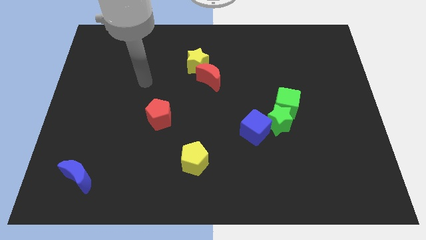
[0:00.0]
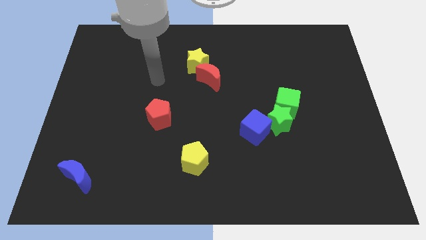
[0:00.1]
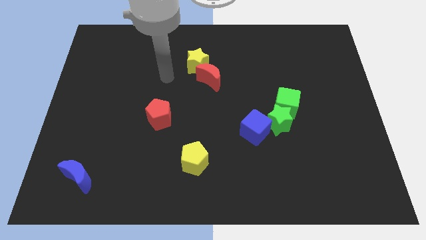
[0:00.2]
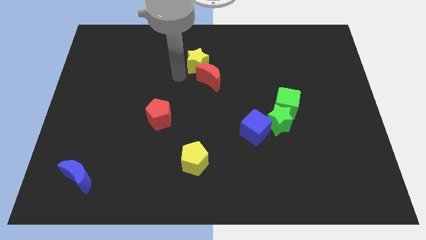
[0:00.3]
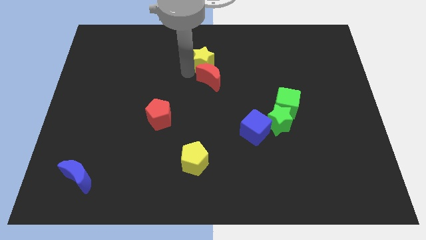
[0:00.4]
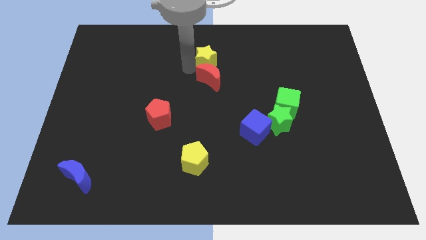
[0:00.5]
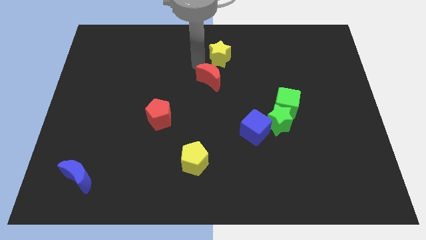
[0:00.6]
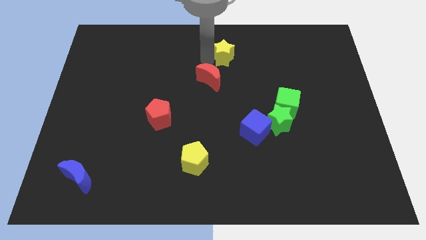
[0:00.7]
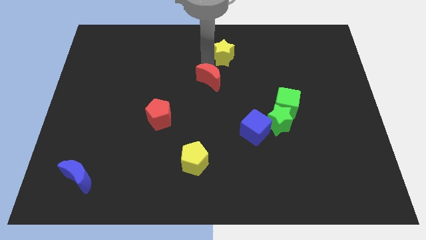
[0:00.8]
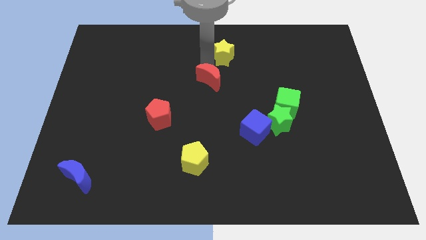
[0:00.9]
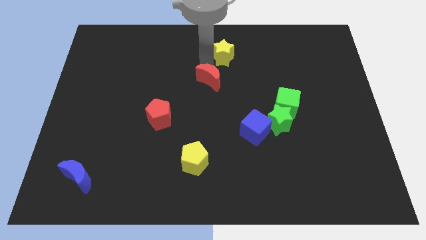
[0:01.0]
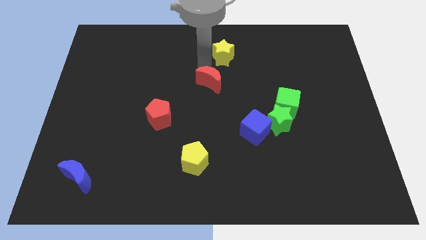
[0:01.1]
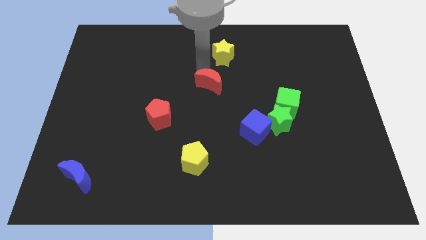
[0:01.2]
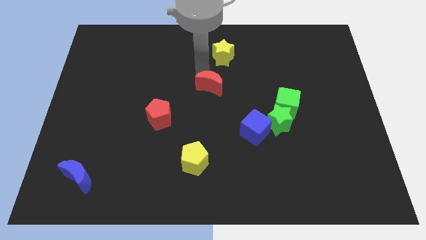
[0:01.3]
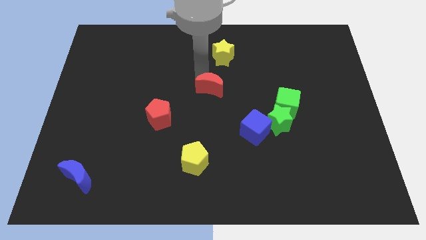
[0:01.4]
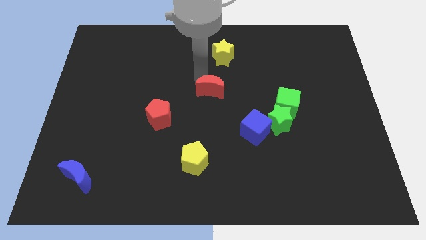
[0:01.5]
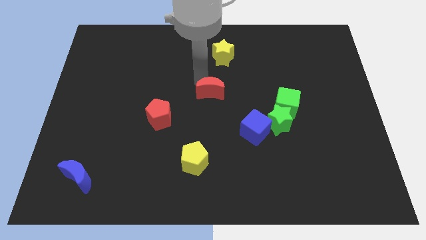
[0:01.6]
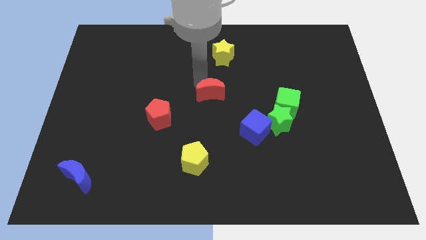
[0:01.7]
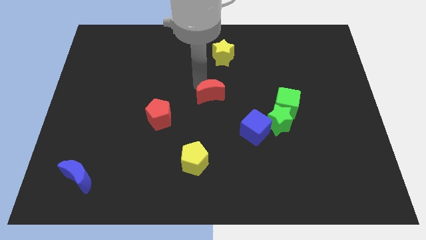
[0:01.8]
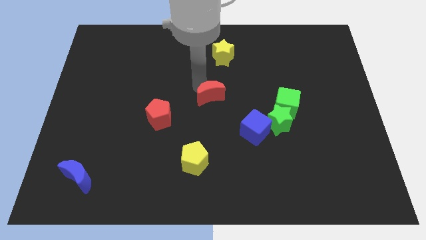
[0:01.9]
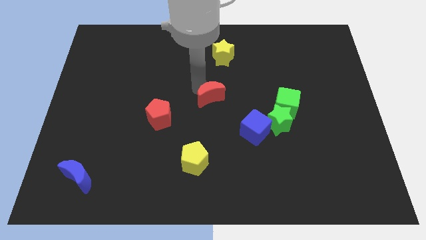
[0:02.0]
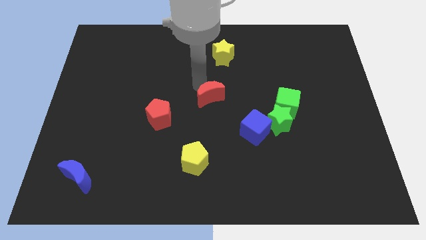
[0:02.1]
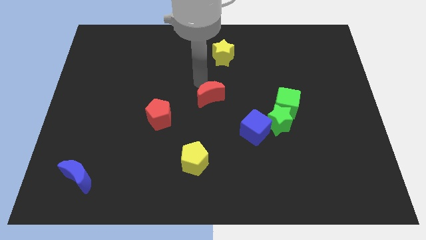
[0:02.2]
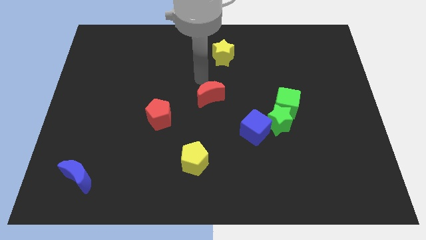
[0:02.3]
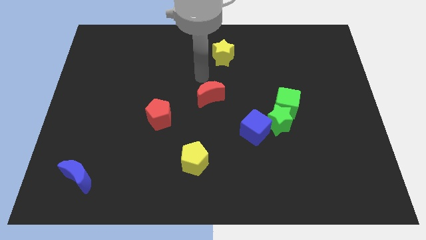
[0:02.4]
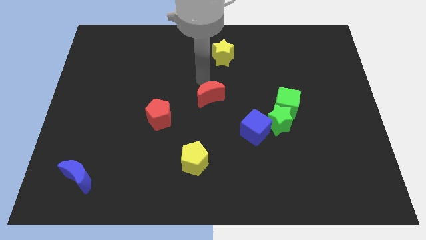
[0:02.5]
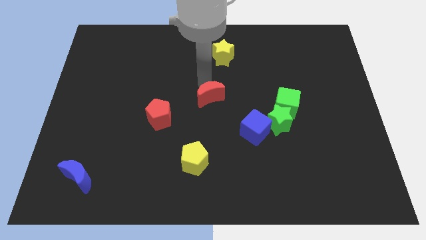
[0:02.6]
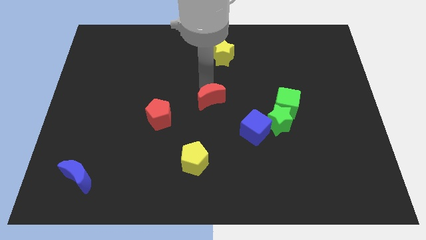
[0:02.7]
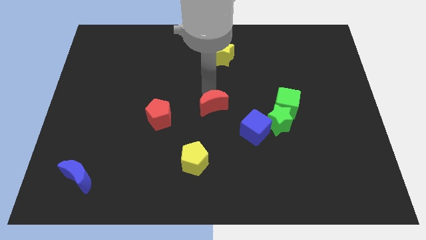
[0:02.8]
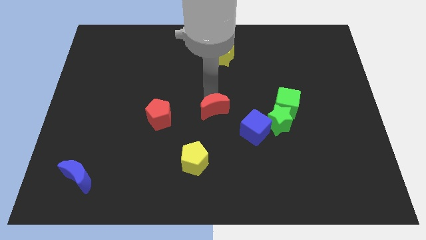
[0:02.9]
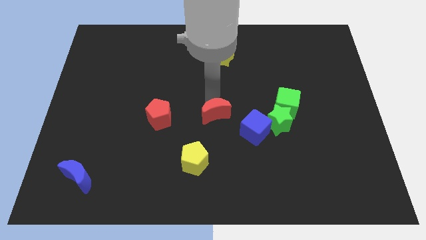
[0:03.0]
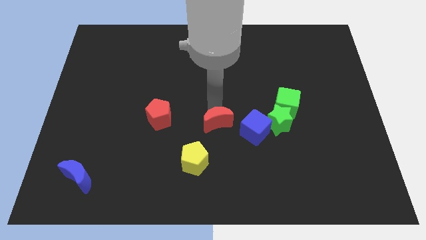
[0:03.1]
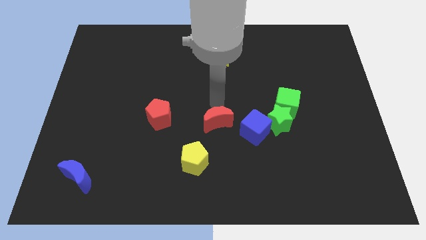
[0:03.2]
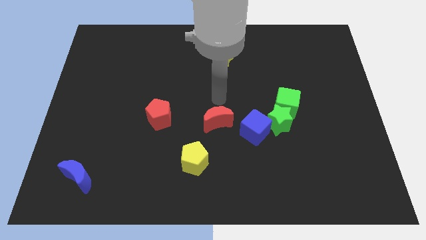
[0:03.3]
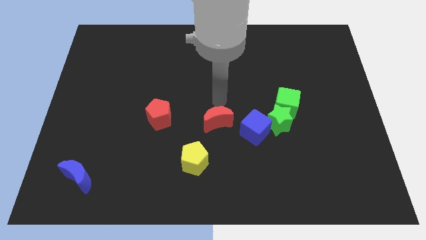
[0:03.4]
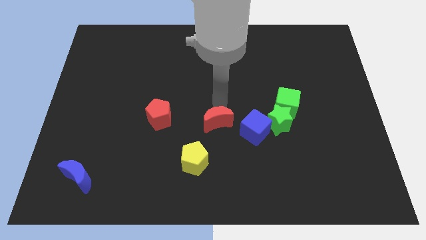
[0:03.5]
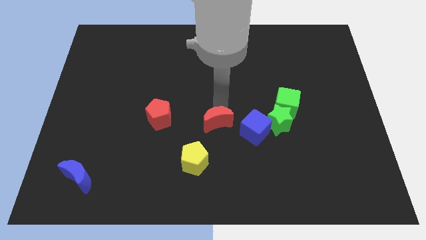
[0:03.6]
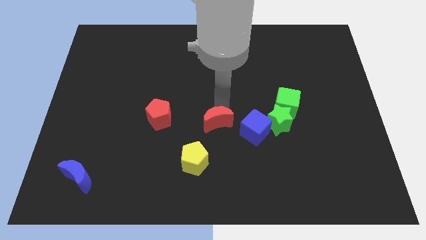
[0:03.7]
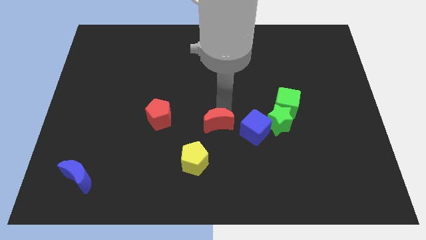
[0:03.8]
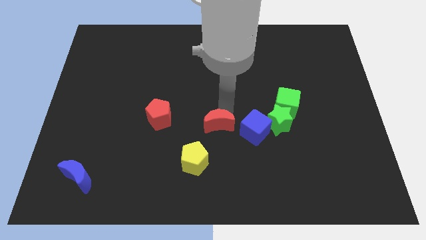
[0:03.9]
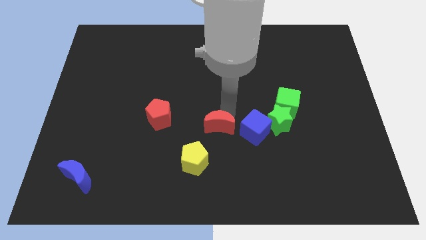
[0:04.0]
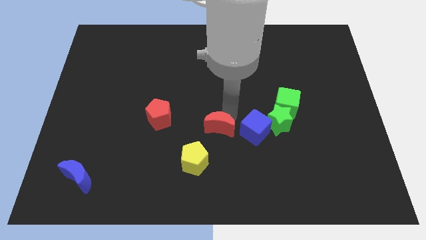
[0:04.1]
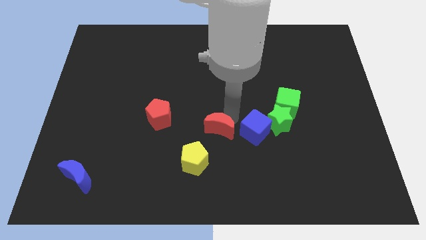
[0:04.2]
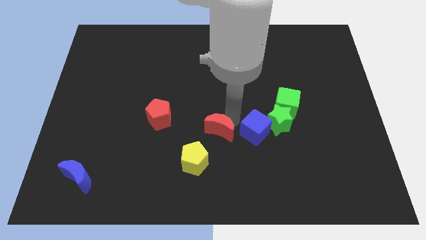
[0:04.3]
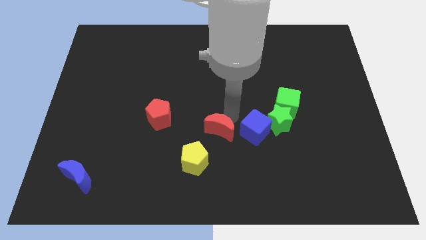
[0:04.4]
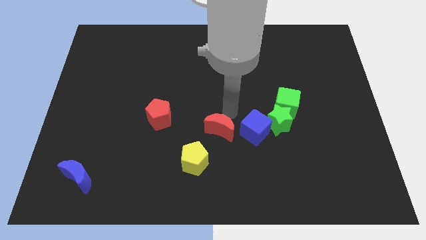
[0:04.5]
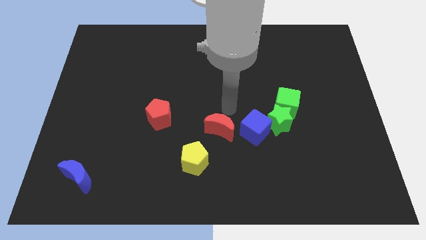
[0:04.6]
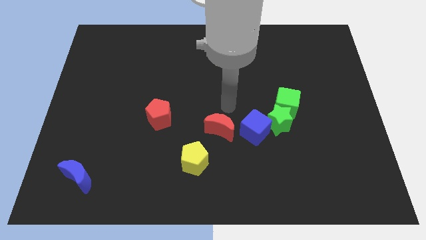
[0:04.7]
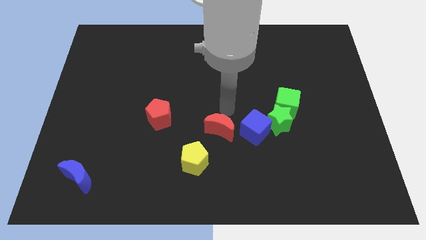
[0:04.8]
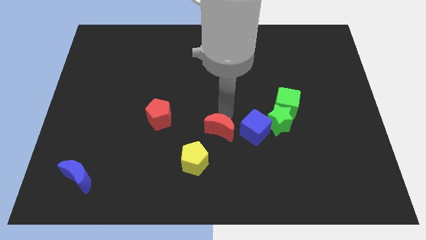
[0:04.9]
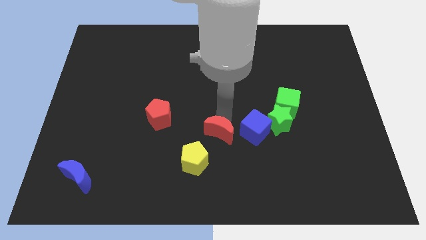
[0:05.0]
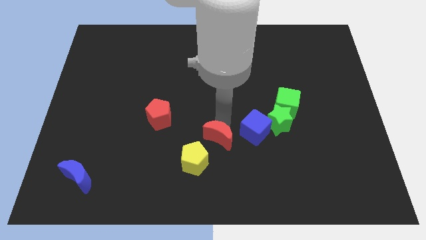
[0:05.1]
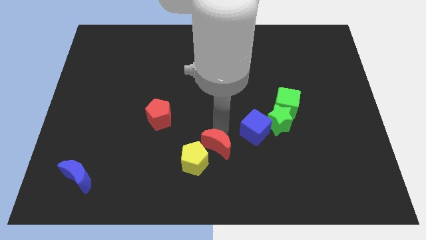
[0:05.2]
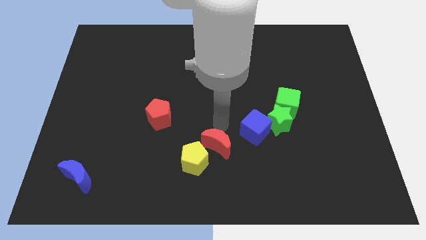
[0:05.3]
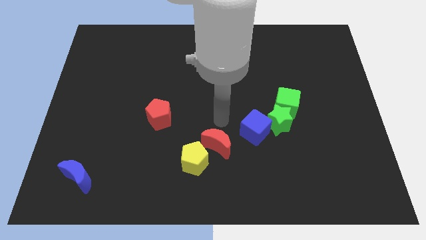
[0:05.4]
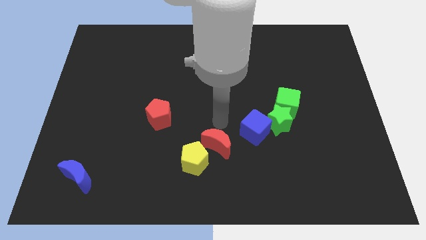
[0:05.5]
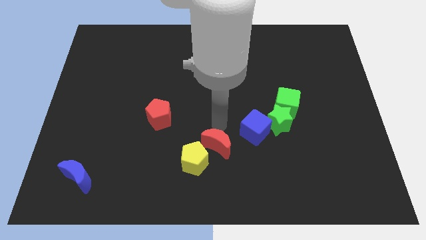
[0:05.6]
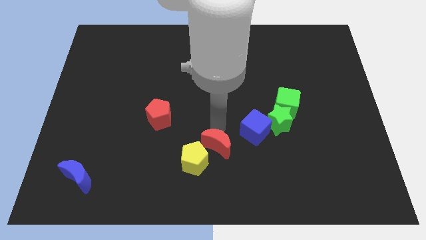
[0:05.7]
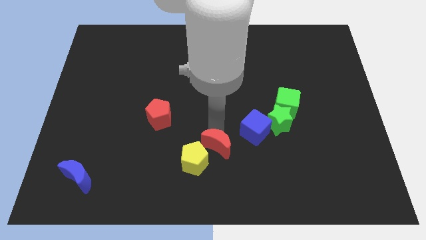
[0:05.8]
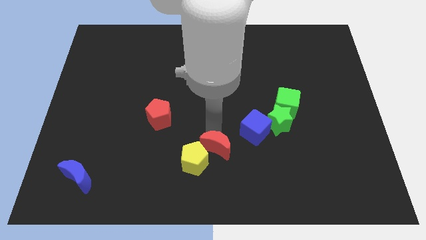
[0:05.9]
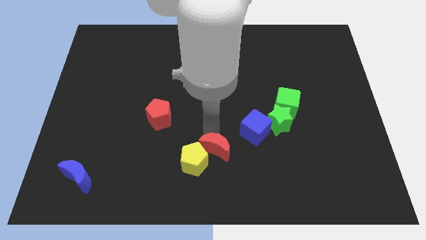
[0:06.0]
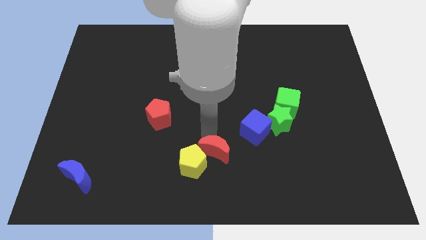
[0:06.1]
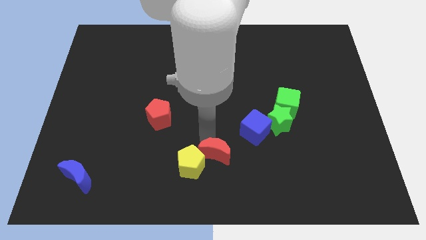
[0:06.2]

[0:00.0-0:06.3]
slide the red moon to the bottom side
